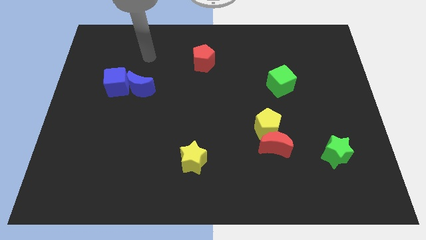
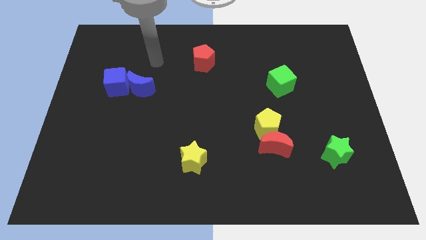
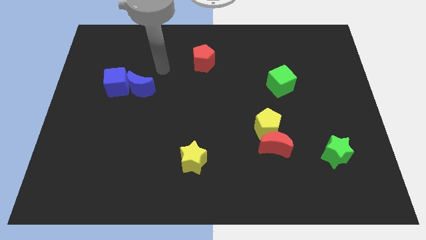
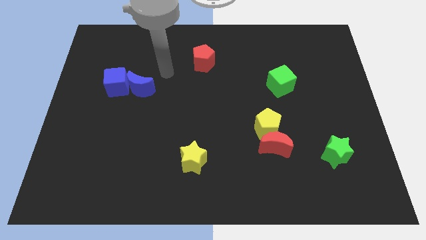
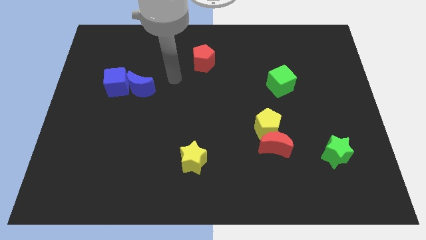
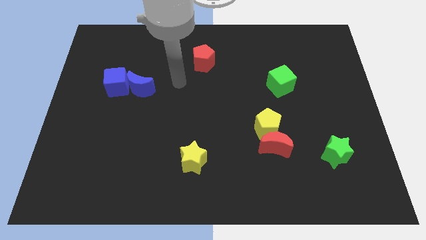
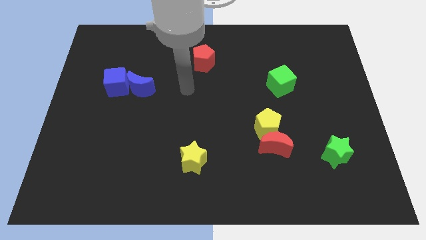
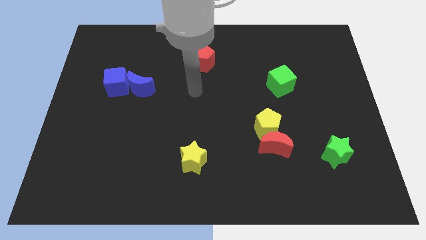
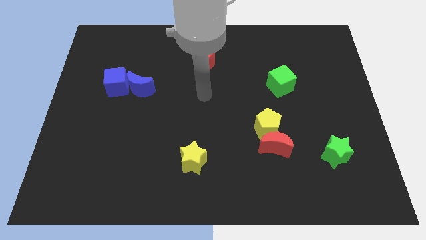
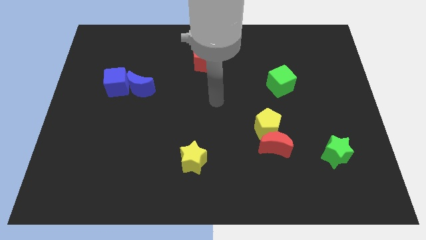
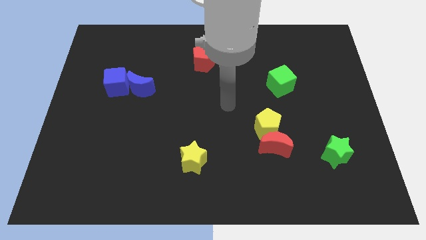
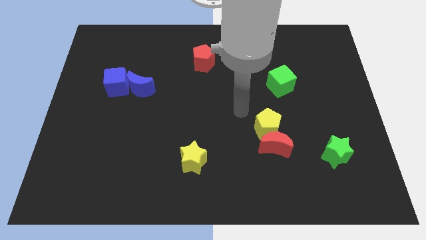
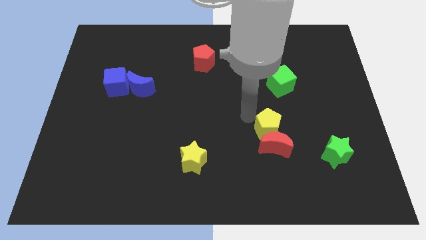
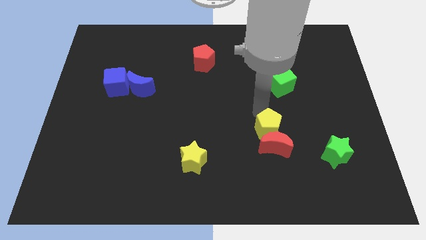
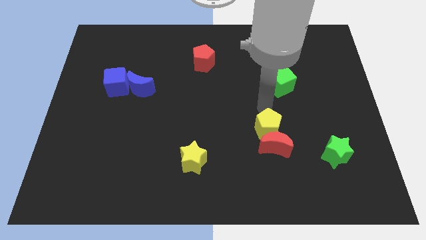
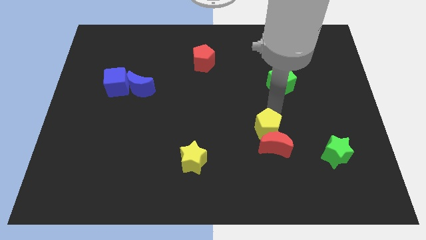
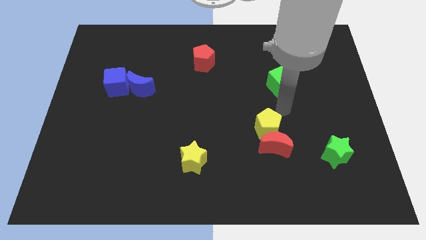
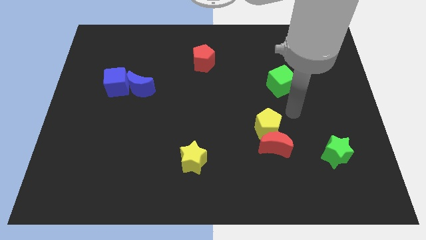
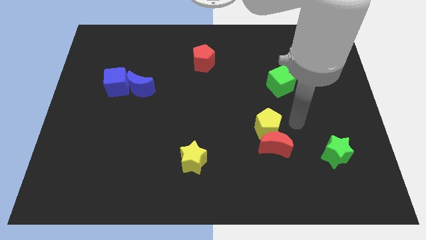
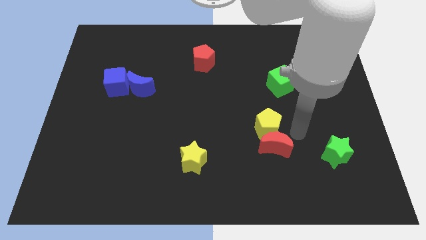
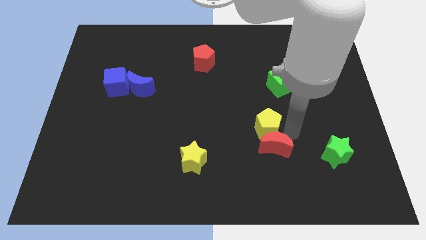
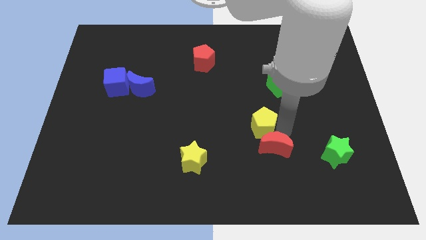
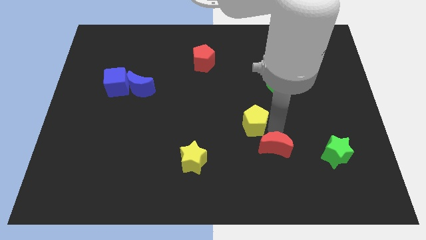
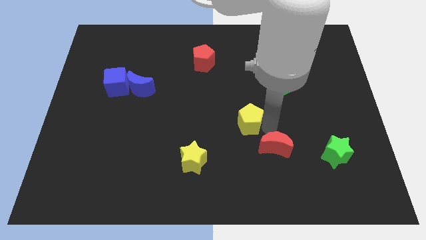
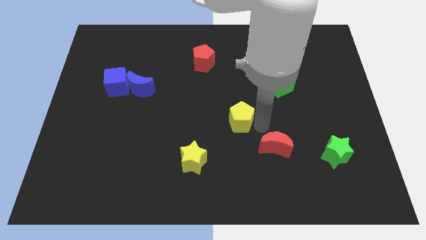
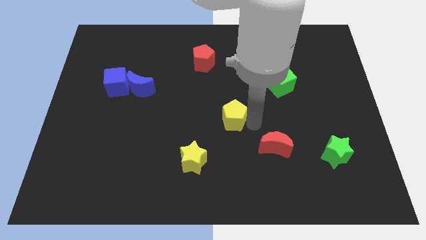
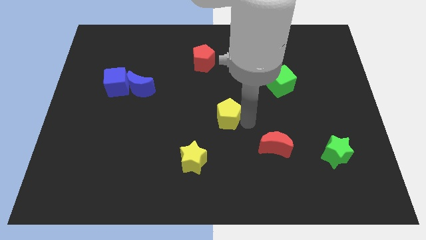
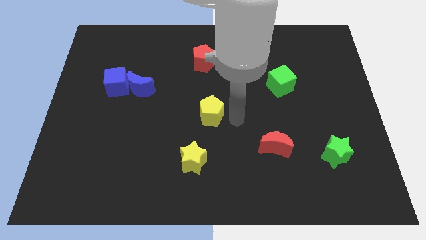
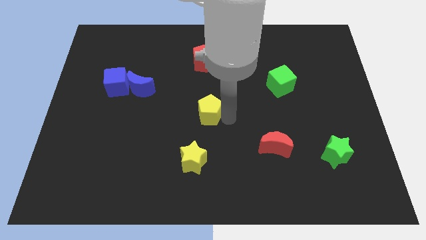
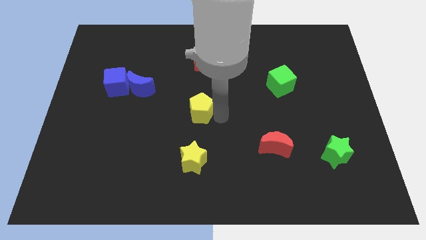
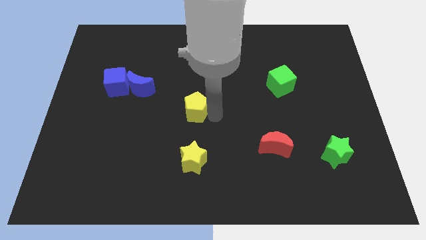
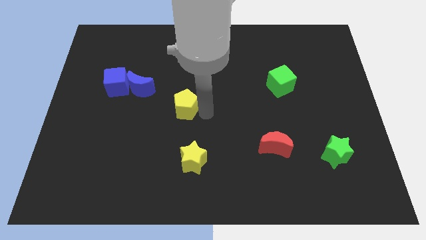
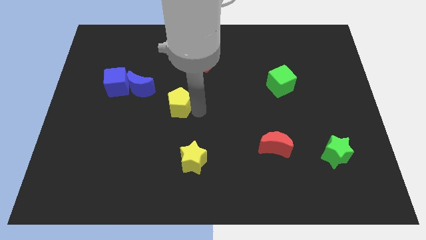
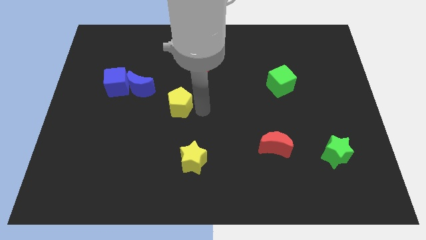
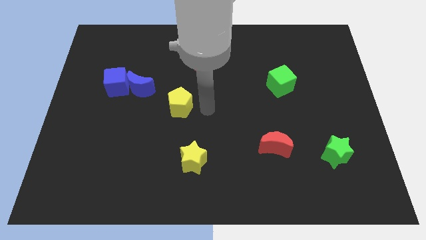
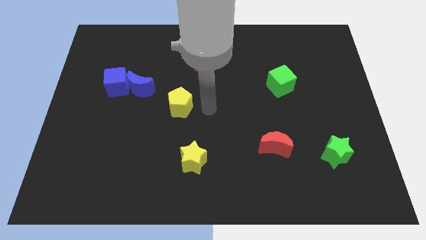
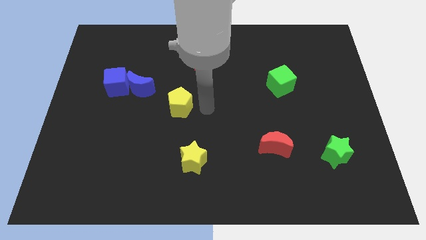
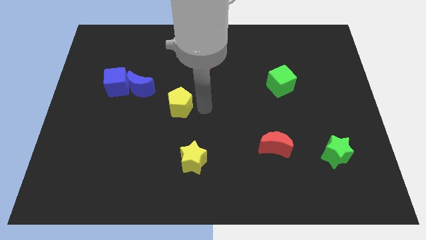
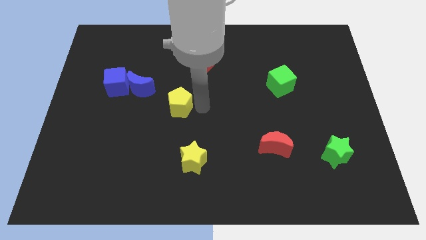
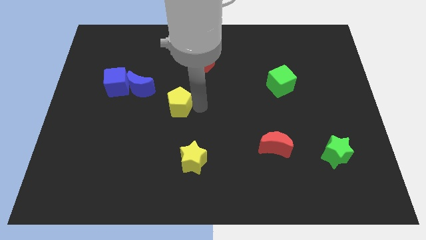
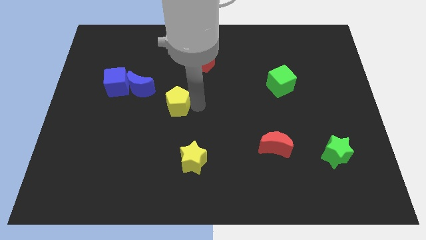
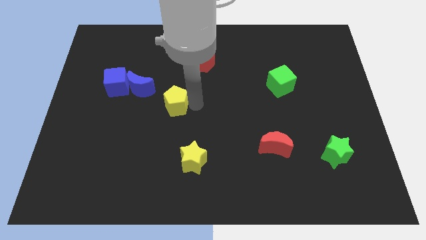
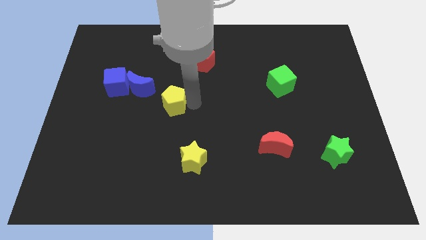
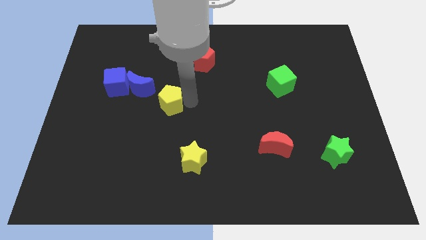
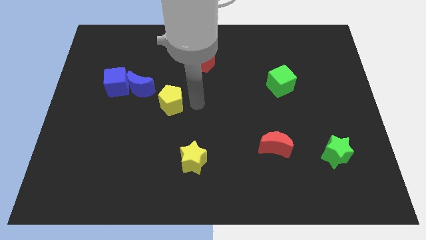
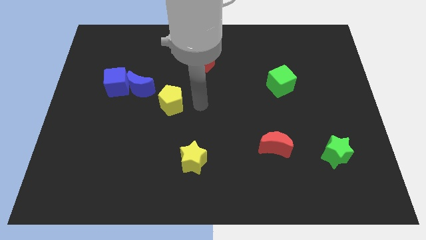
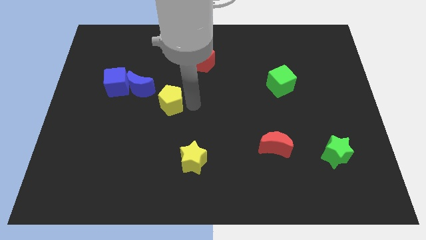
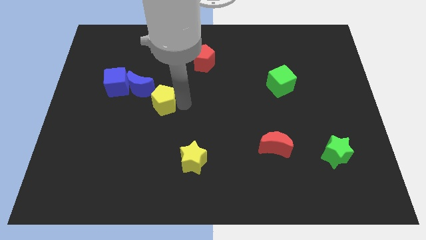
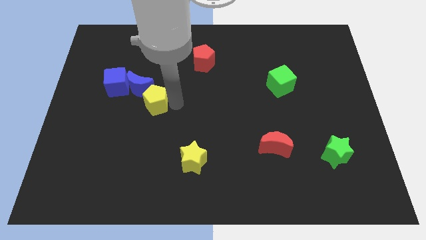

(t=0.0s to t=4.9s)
slide the yellow pentagon to the bottom right of the blue cube

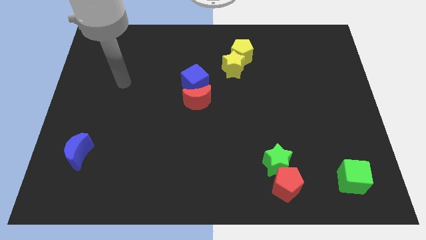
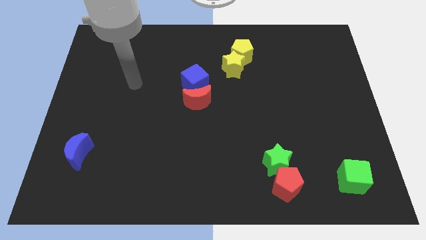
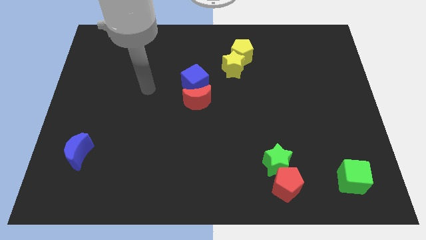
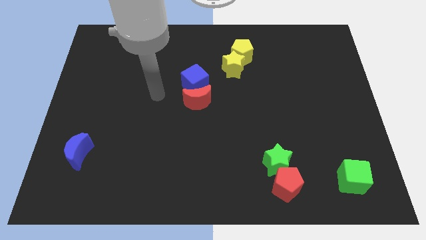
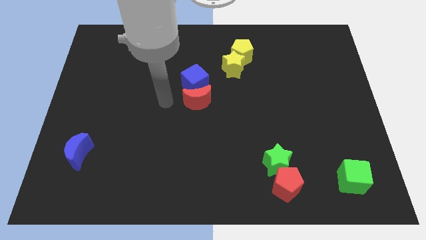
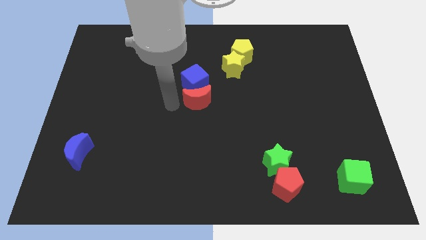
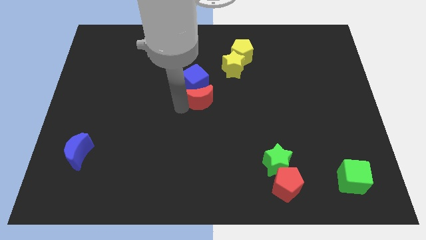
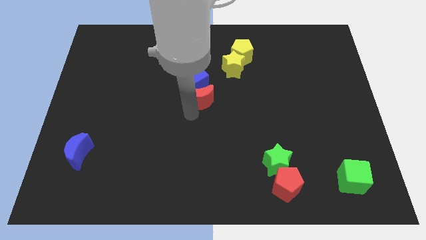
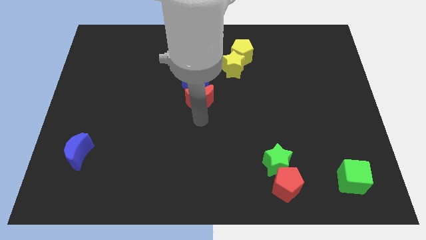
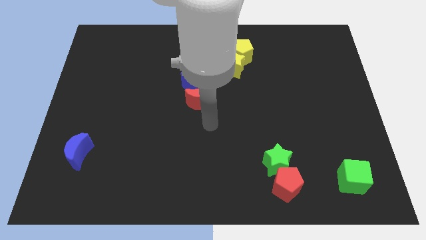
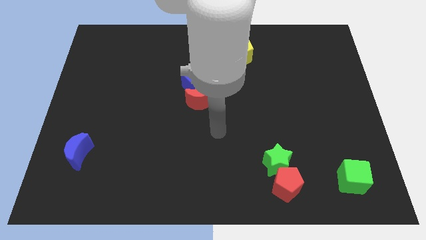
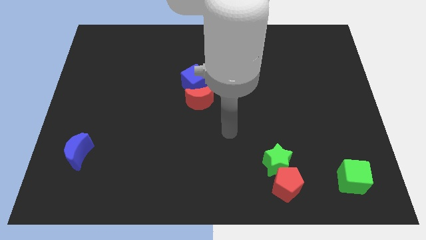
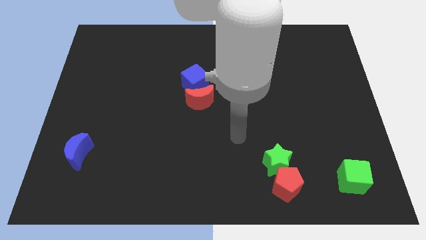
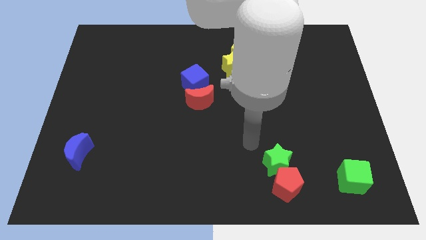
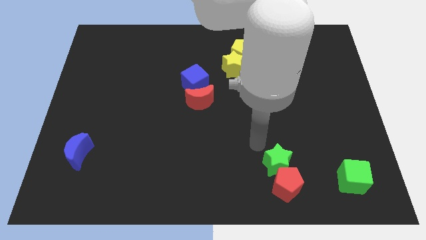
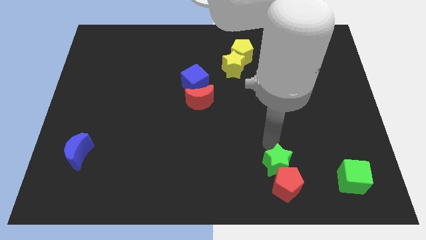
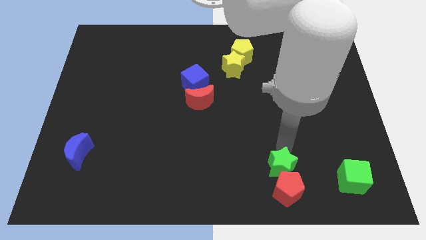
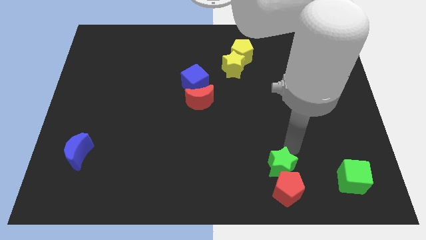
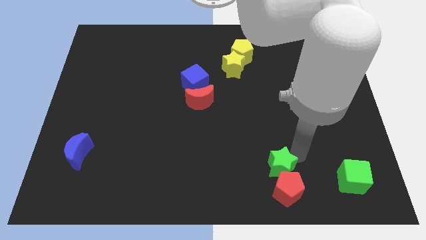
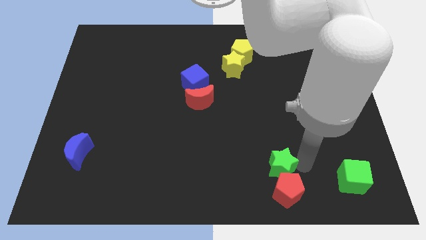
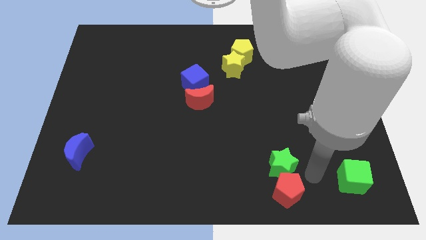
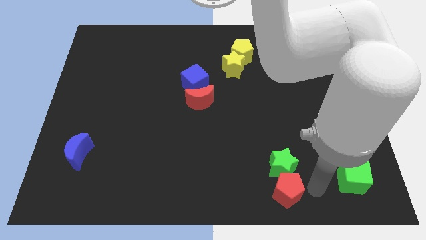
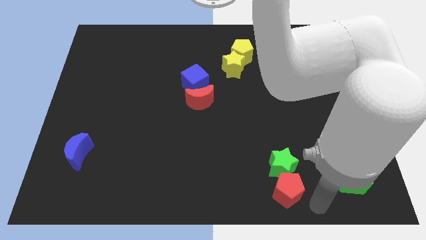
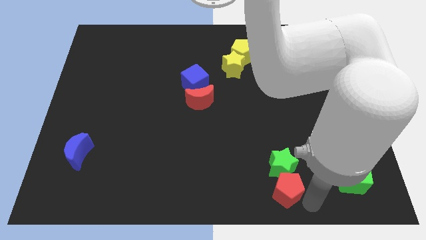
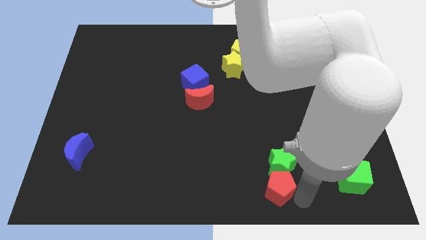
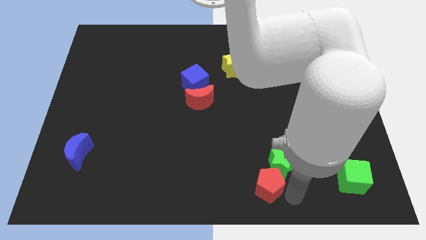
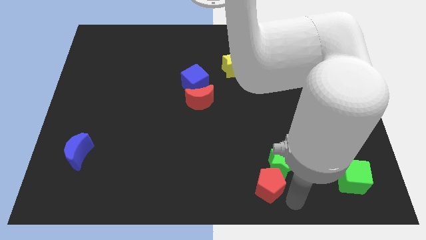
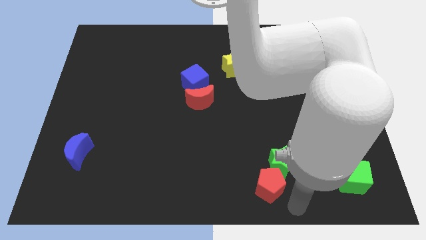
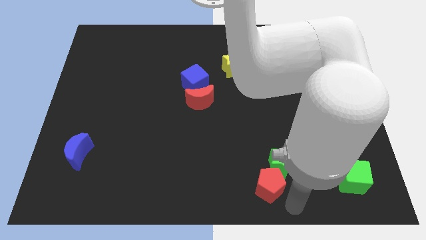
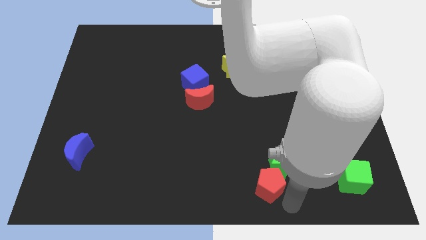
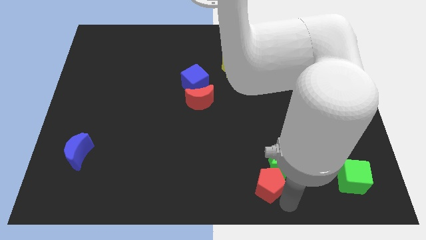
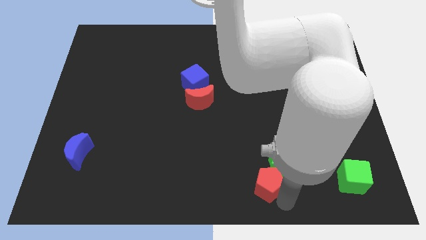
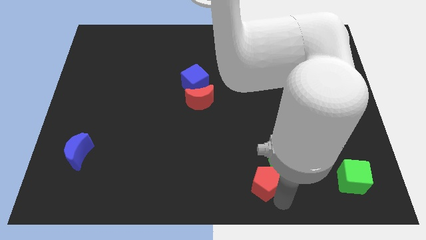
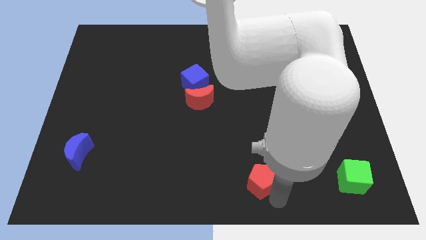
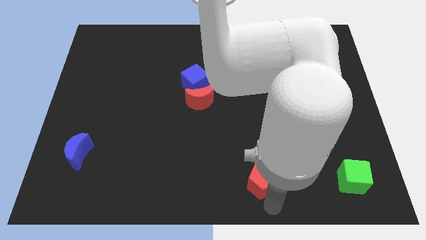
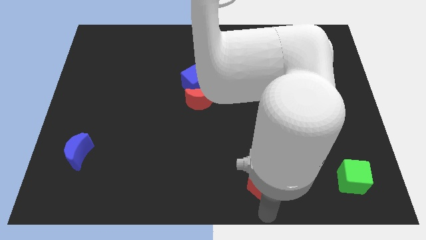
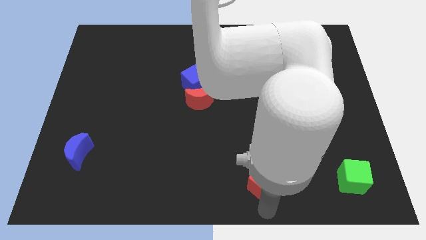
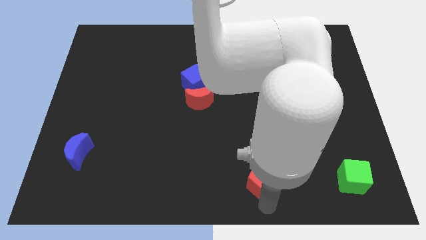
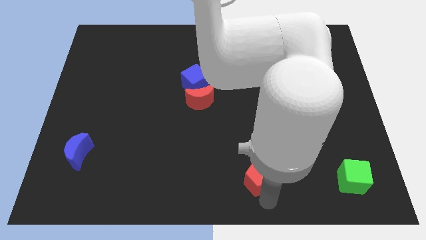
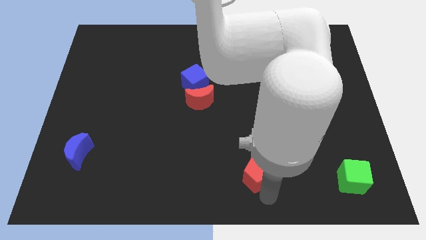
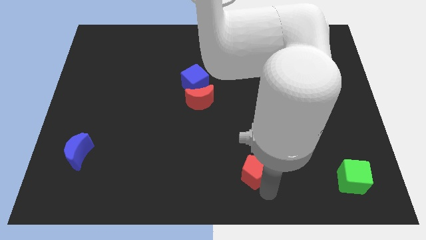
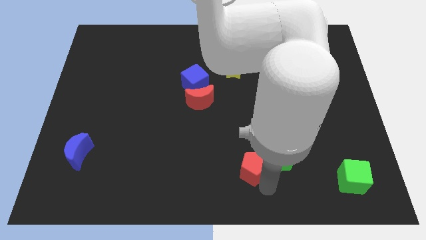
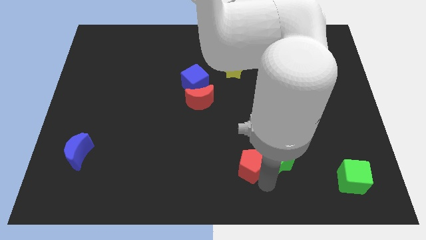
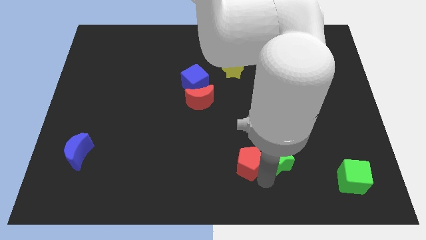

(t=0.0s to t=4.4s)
push the red pentagon to the top left of the green star
